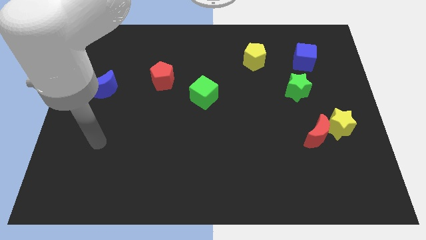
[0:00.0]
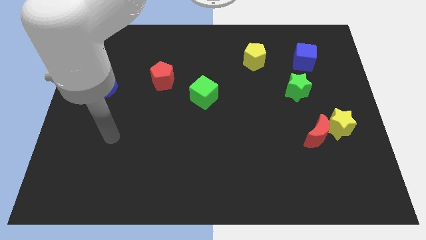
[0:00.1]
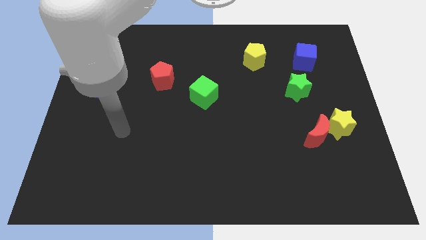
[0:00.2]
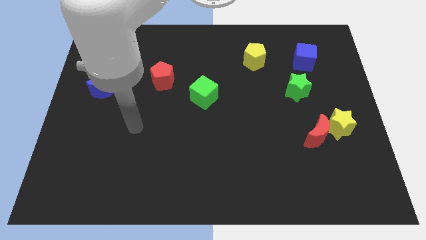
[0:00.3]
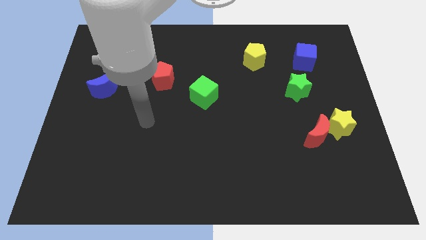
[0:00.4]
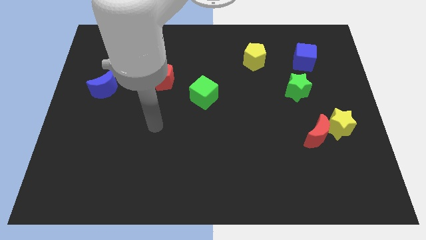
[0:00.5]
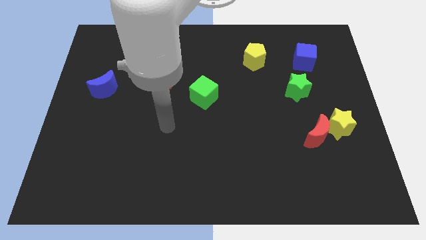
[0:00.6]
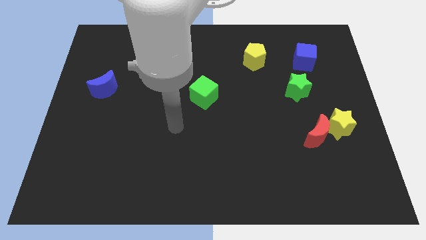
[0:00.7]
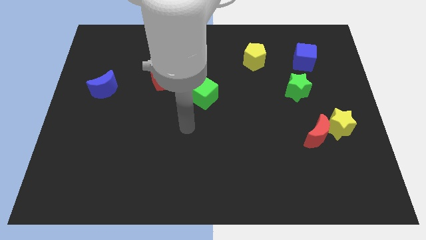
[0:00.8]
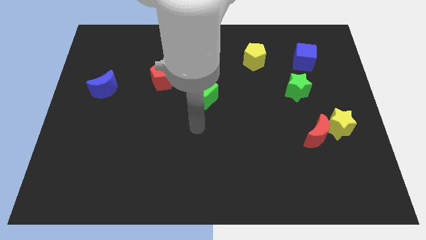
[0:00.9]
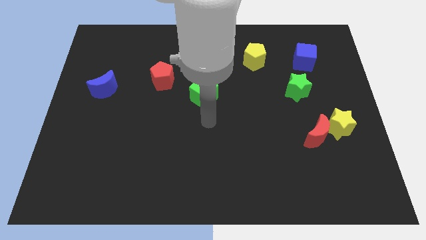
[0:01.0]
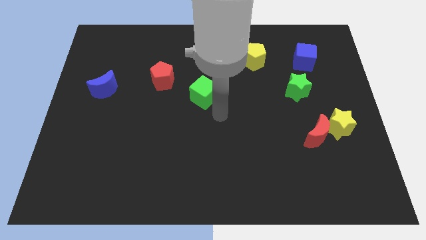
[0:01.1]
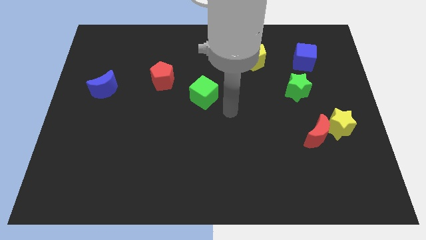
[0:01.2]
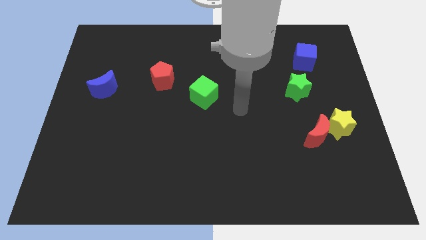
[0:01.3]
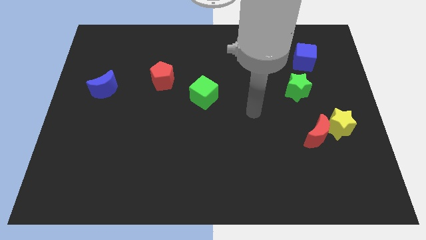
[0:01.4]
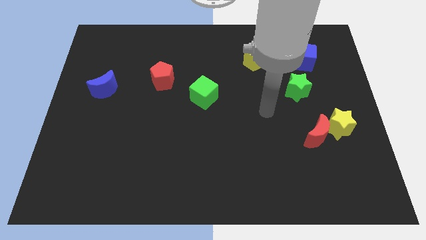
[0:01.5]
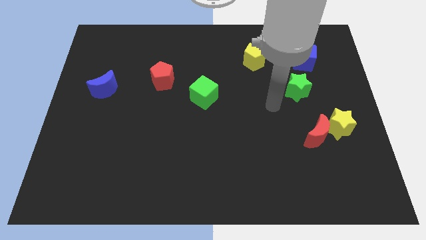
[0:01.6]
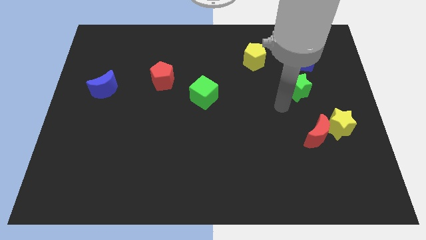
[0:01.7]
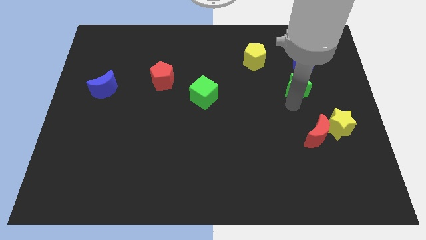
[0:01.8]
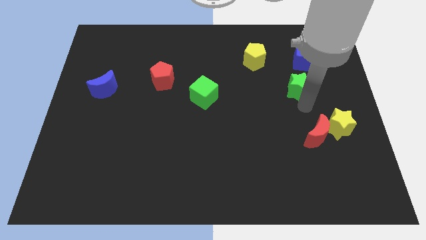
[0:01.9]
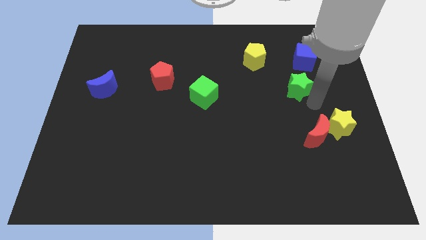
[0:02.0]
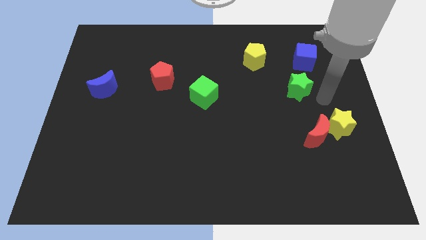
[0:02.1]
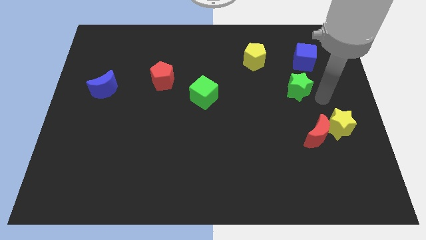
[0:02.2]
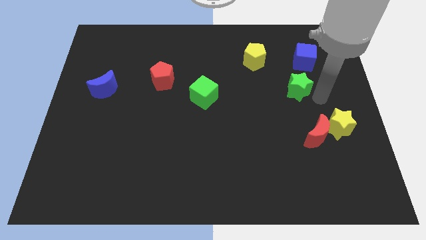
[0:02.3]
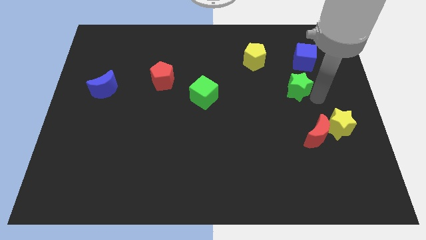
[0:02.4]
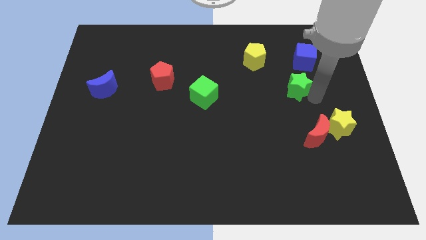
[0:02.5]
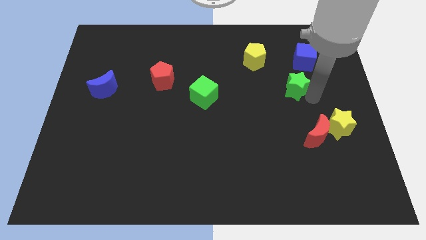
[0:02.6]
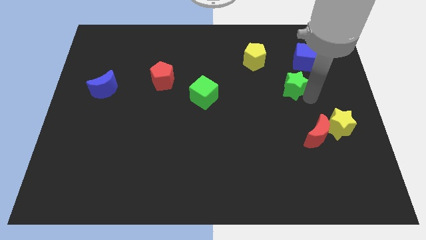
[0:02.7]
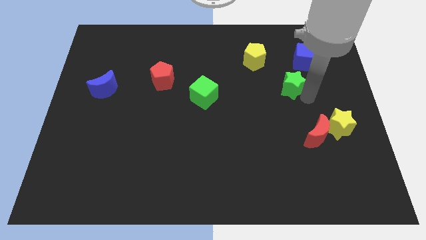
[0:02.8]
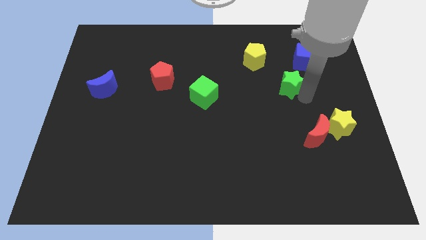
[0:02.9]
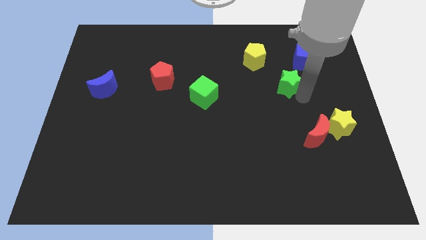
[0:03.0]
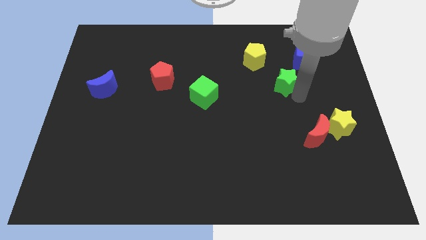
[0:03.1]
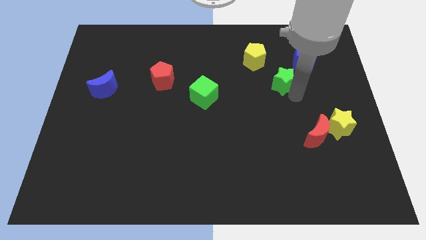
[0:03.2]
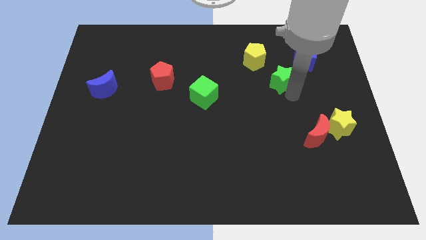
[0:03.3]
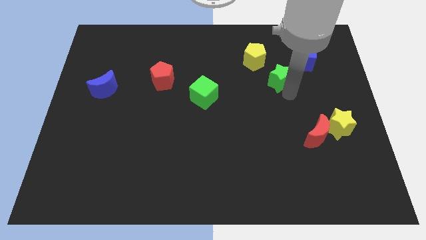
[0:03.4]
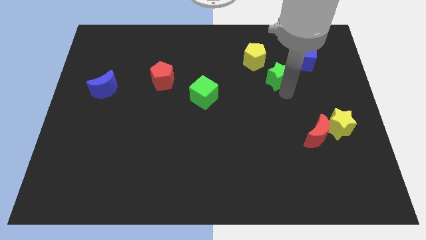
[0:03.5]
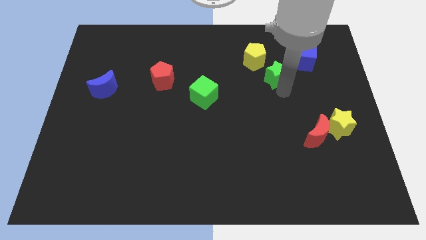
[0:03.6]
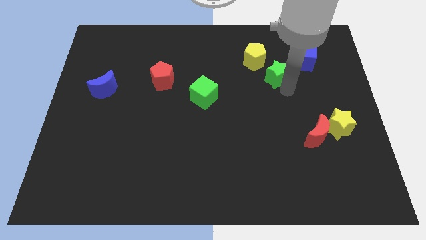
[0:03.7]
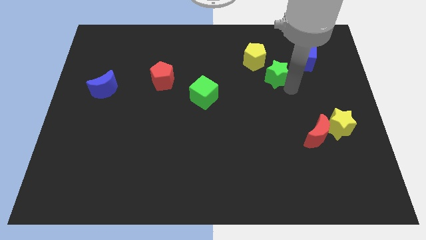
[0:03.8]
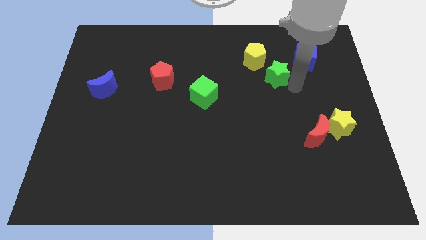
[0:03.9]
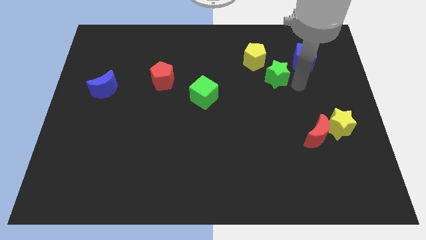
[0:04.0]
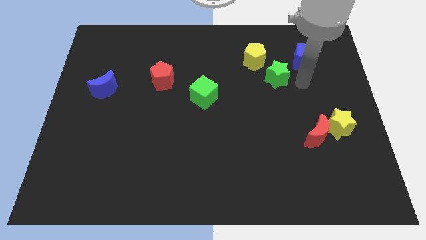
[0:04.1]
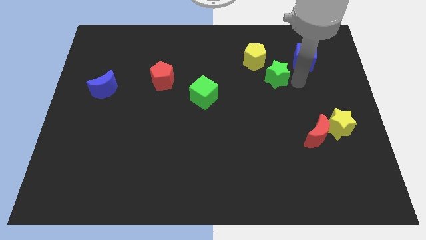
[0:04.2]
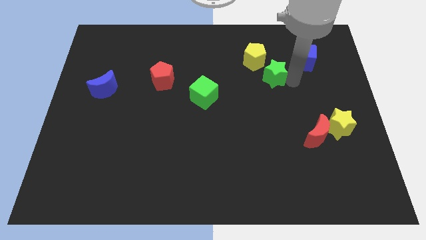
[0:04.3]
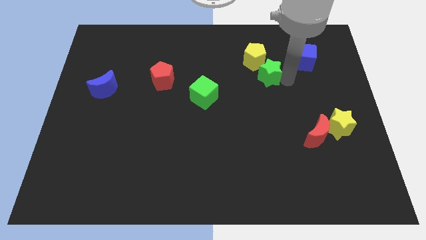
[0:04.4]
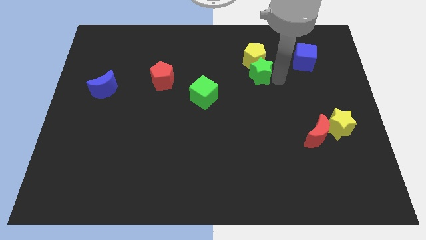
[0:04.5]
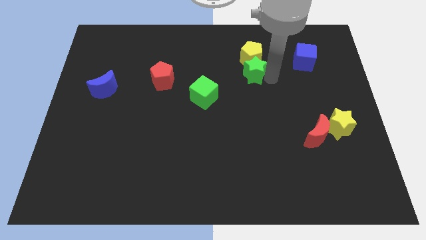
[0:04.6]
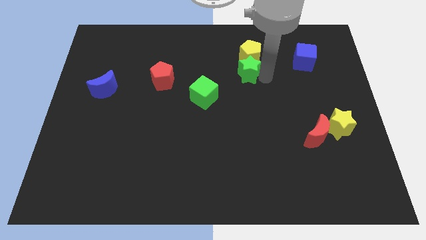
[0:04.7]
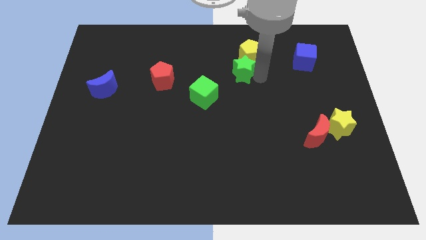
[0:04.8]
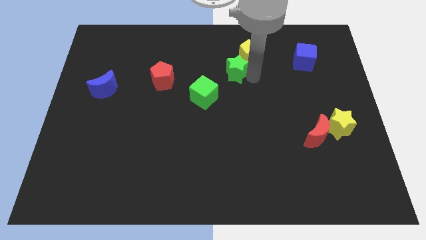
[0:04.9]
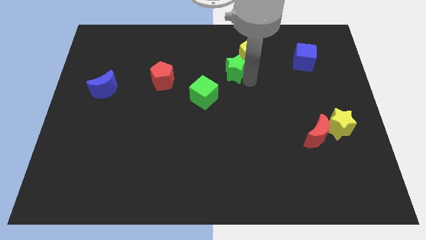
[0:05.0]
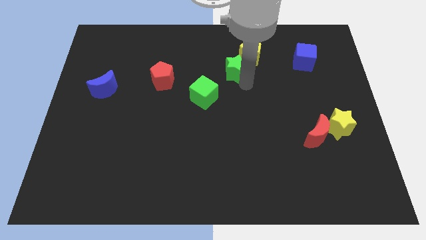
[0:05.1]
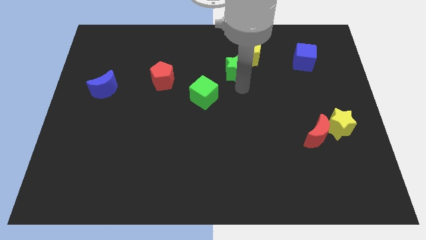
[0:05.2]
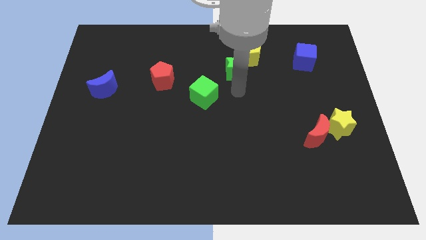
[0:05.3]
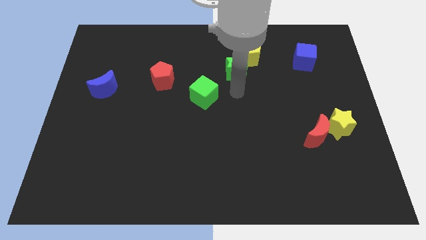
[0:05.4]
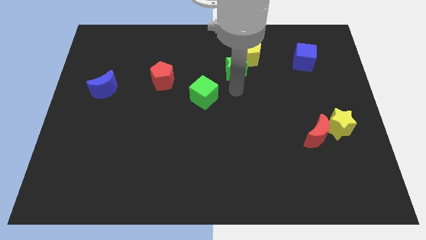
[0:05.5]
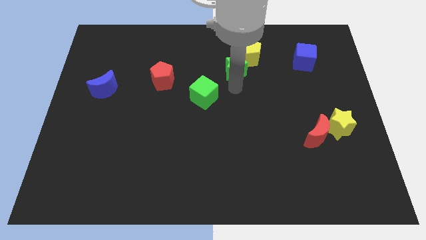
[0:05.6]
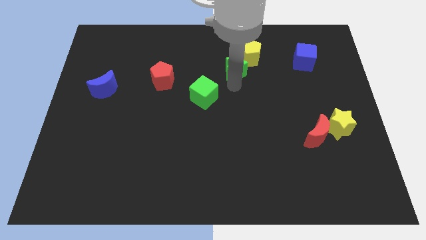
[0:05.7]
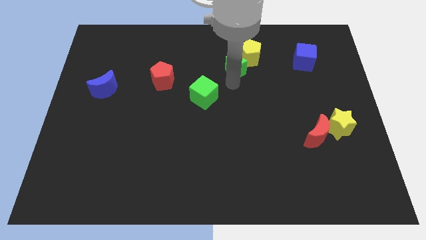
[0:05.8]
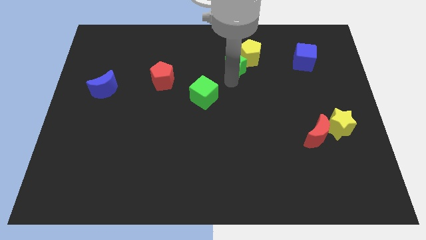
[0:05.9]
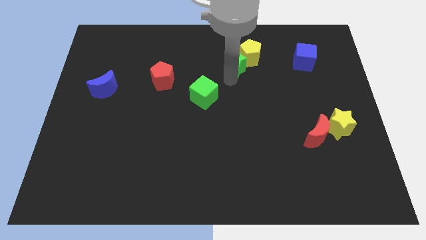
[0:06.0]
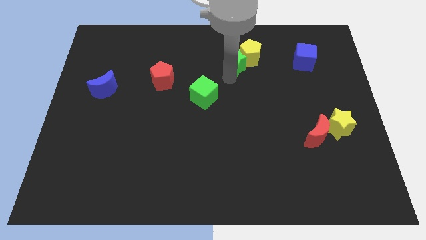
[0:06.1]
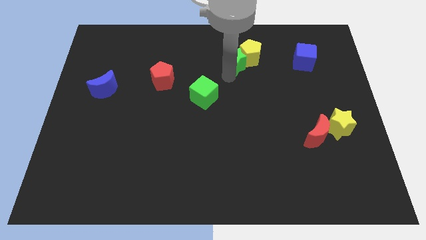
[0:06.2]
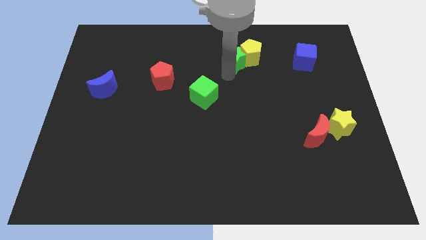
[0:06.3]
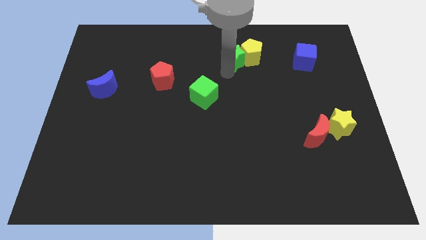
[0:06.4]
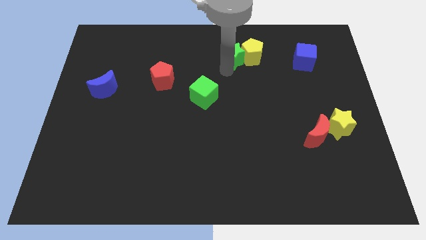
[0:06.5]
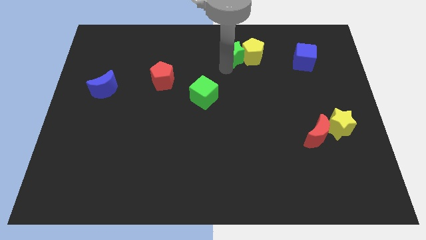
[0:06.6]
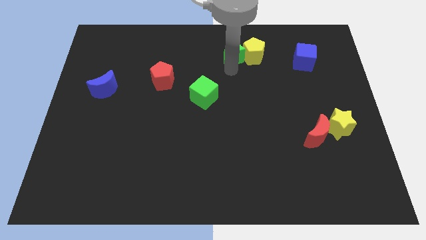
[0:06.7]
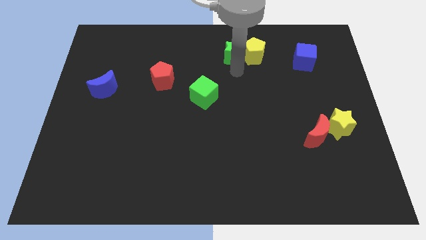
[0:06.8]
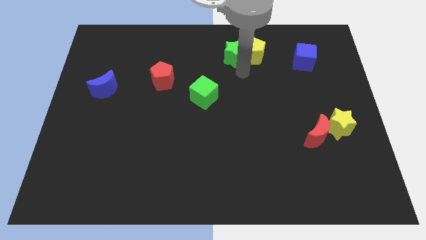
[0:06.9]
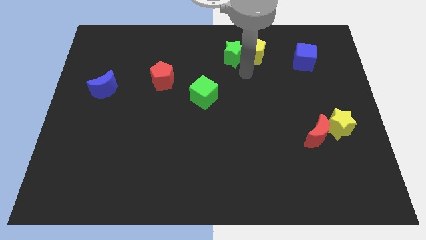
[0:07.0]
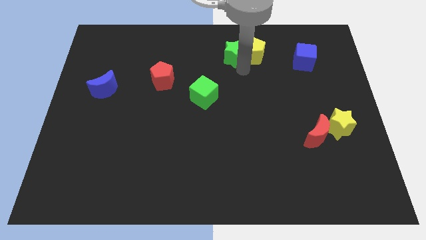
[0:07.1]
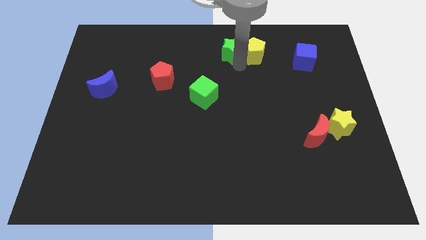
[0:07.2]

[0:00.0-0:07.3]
slide the green star to the towards your base
